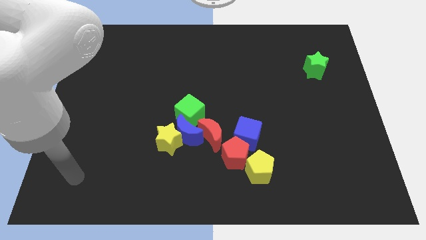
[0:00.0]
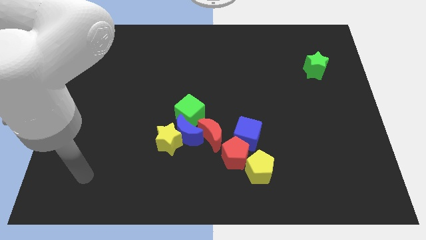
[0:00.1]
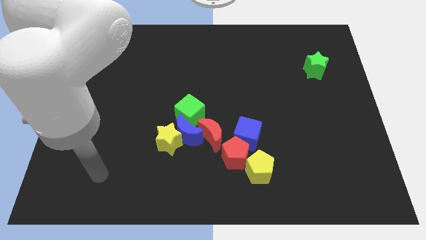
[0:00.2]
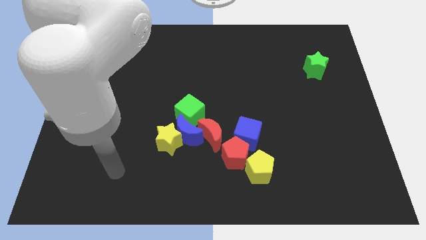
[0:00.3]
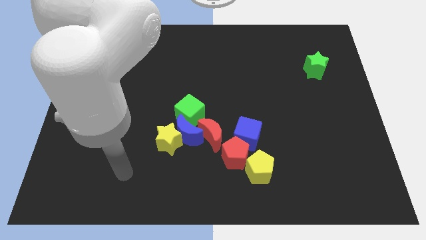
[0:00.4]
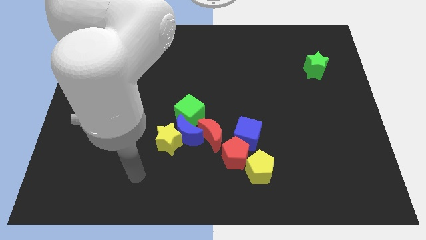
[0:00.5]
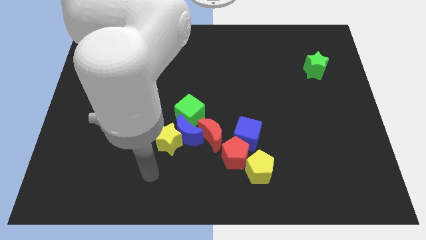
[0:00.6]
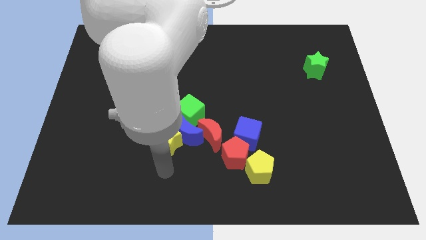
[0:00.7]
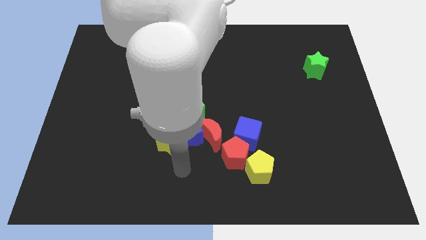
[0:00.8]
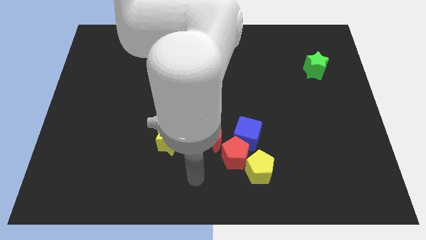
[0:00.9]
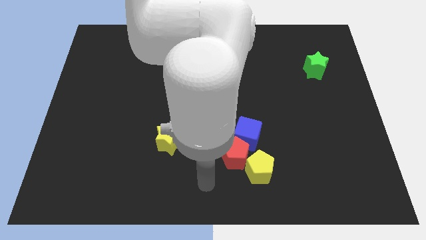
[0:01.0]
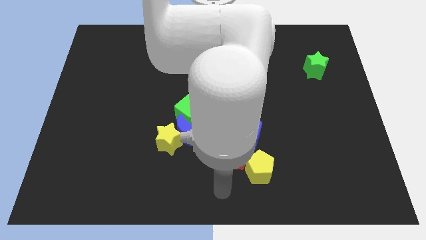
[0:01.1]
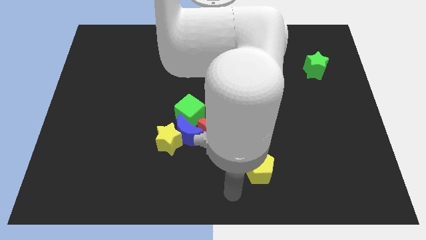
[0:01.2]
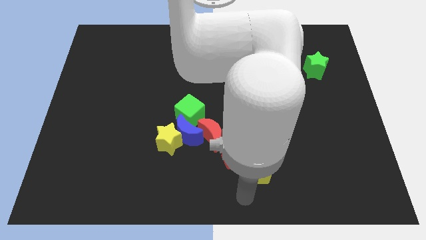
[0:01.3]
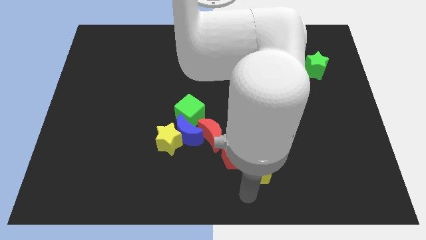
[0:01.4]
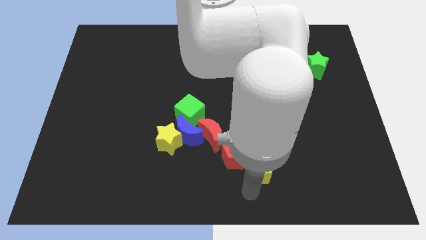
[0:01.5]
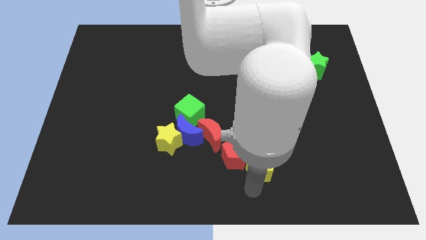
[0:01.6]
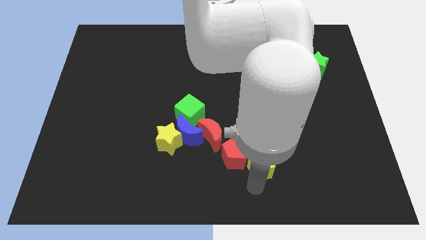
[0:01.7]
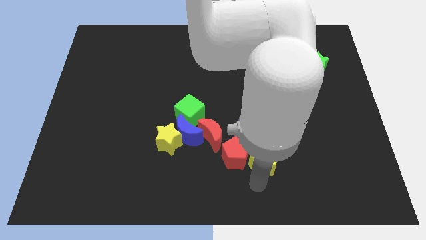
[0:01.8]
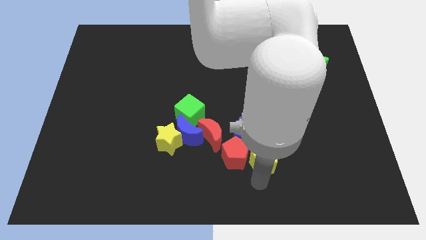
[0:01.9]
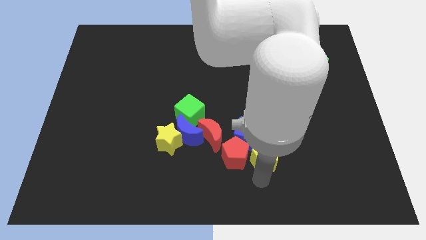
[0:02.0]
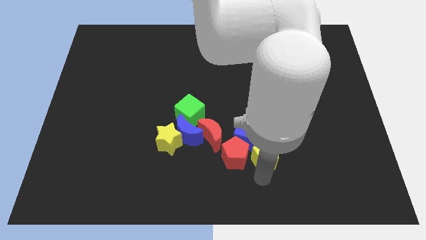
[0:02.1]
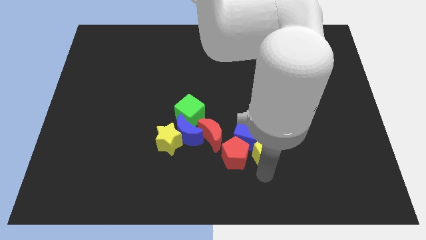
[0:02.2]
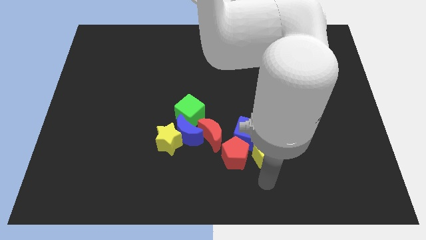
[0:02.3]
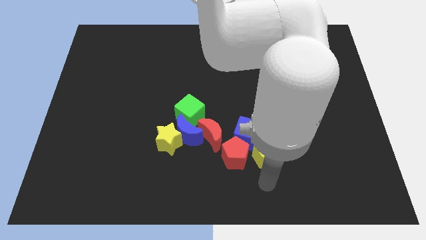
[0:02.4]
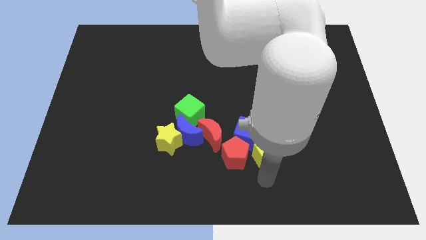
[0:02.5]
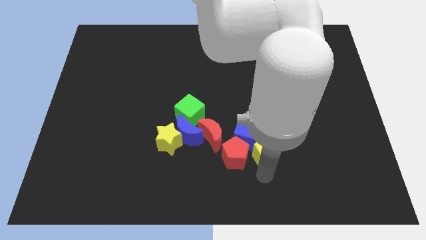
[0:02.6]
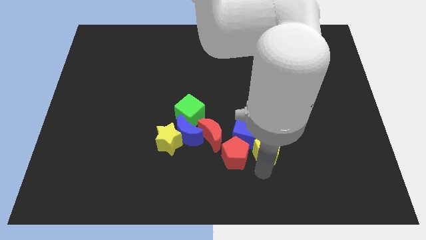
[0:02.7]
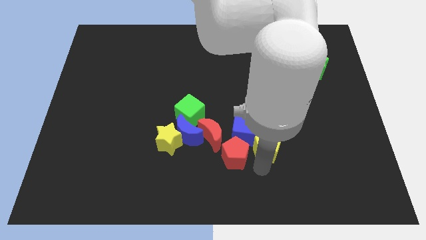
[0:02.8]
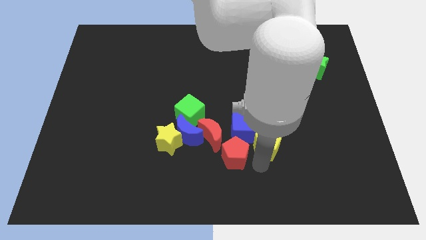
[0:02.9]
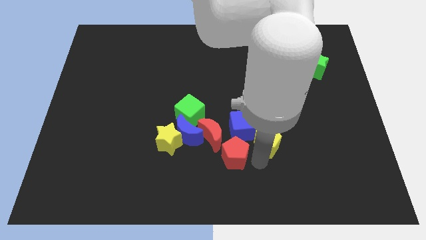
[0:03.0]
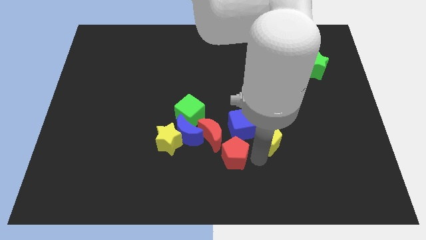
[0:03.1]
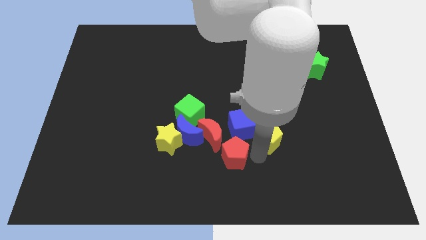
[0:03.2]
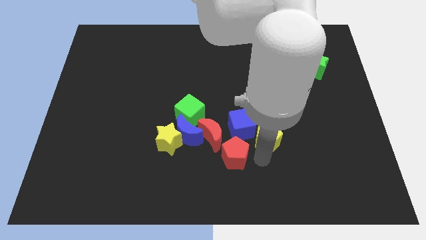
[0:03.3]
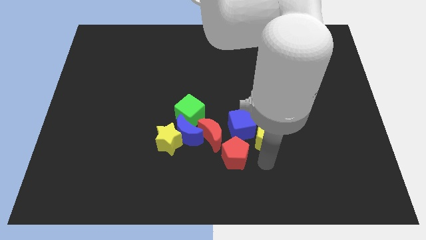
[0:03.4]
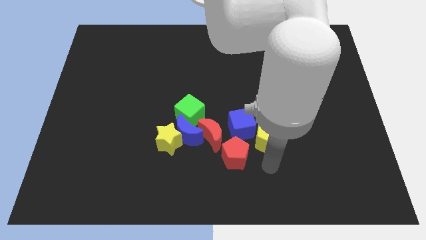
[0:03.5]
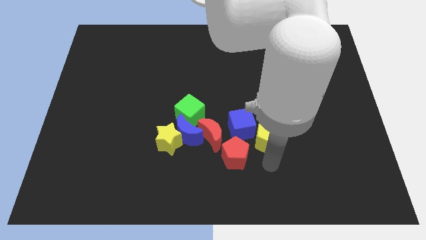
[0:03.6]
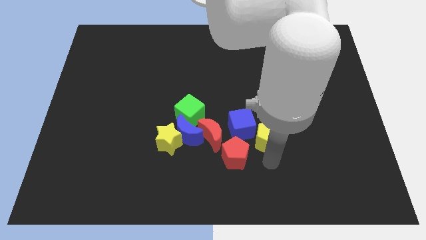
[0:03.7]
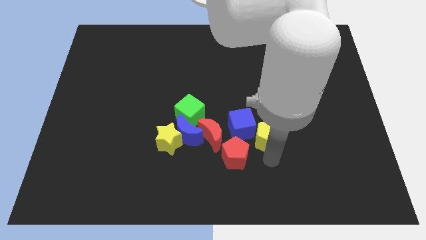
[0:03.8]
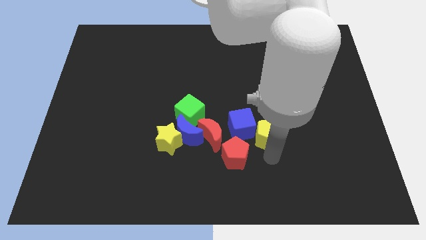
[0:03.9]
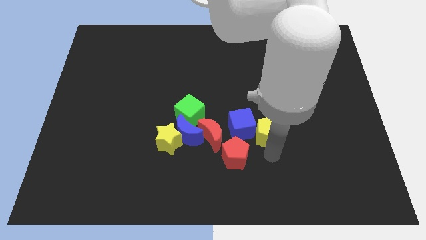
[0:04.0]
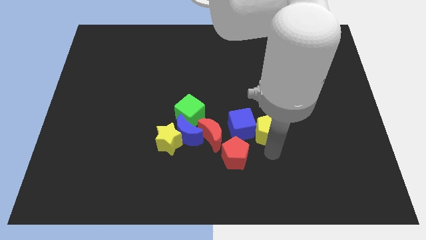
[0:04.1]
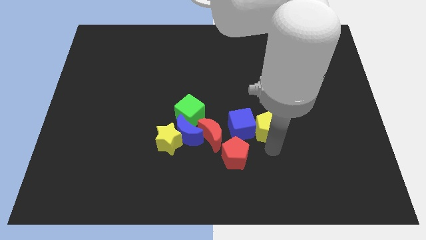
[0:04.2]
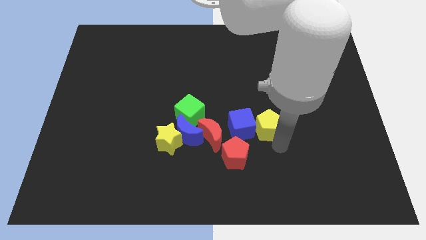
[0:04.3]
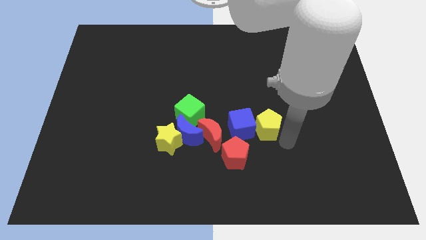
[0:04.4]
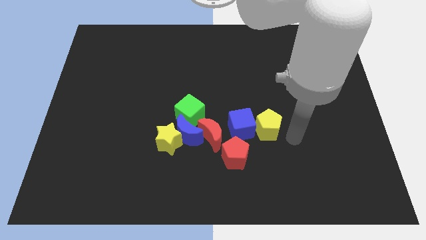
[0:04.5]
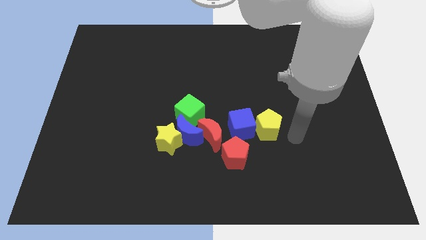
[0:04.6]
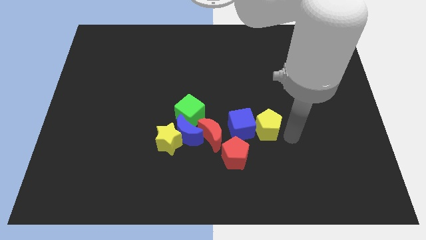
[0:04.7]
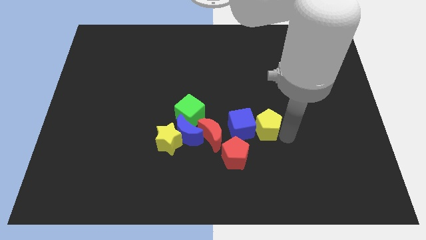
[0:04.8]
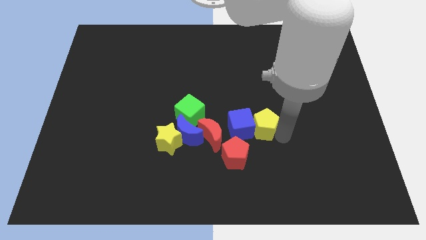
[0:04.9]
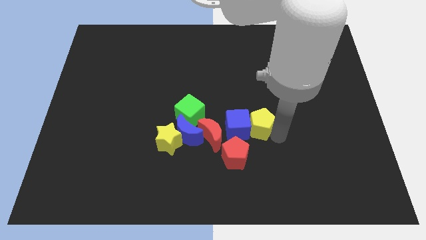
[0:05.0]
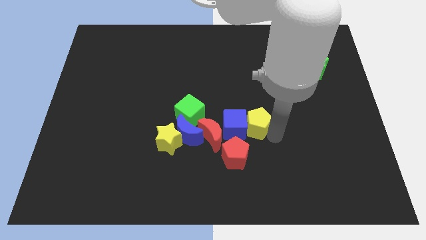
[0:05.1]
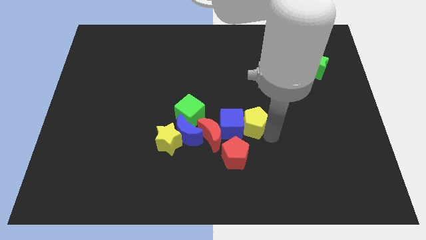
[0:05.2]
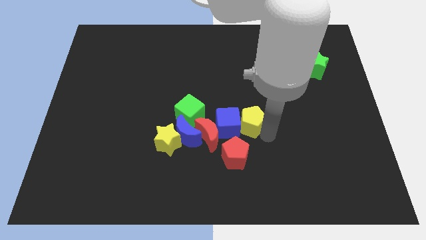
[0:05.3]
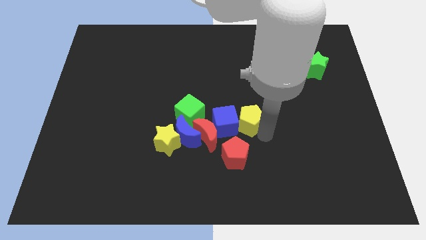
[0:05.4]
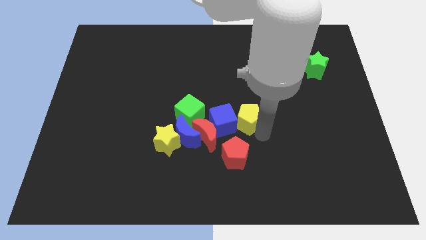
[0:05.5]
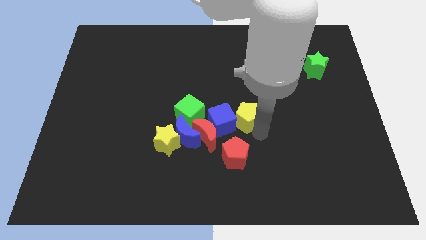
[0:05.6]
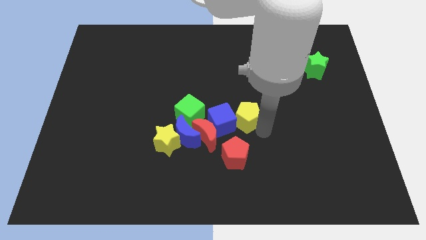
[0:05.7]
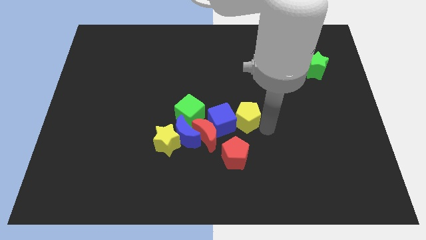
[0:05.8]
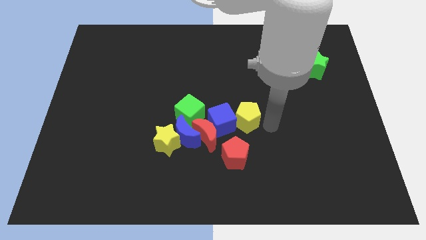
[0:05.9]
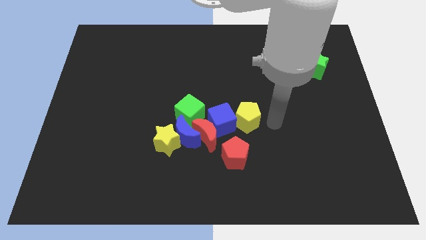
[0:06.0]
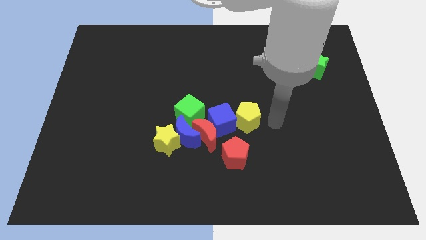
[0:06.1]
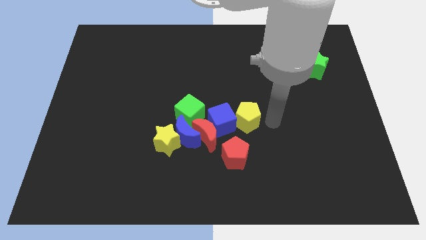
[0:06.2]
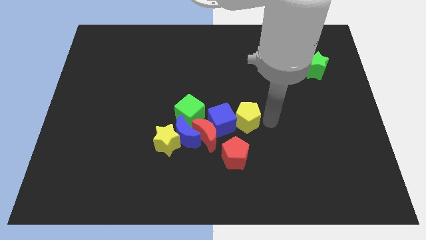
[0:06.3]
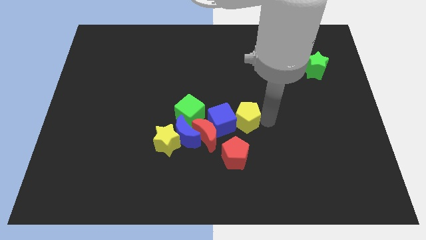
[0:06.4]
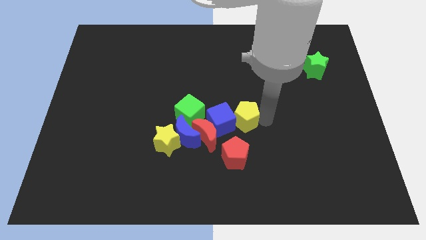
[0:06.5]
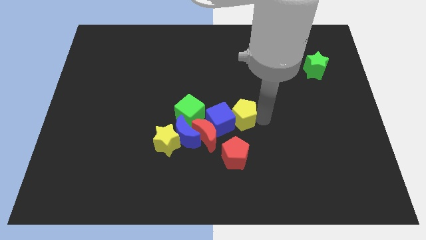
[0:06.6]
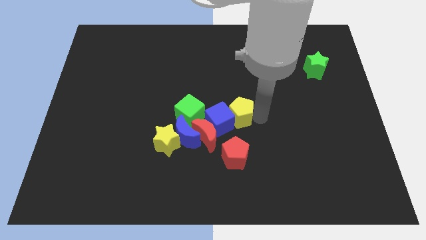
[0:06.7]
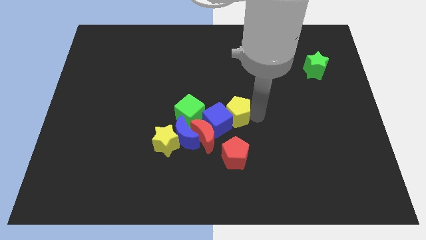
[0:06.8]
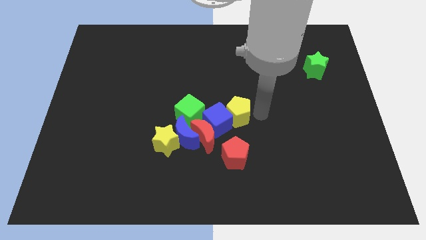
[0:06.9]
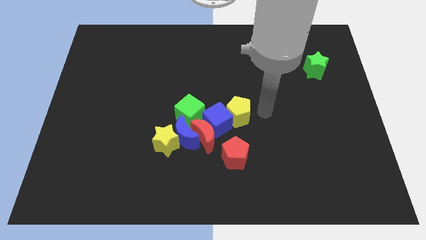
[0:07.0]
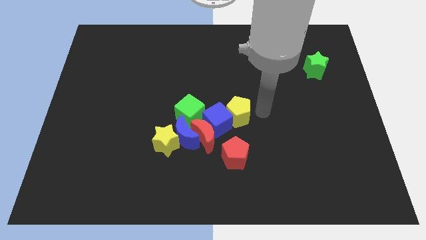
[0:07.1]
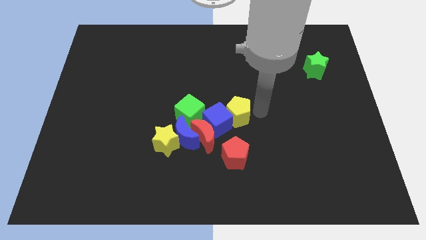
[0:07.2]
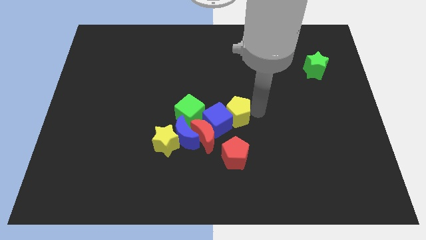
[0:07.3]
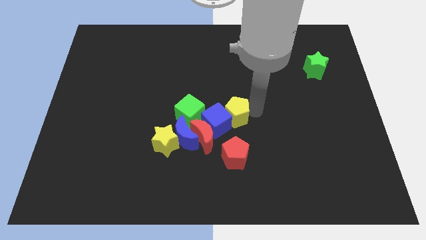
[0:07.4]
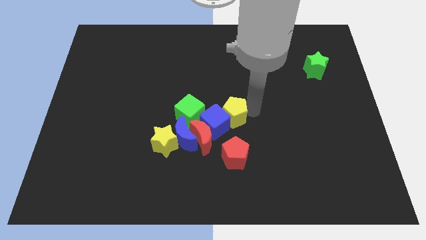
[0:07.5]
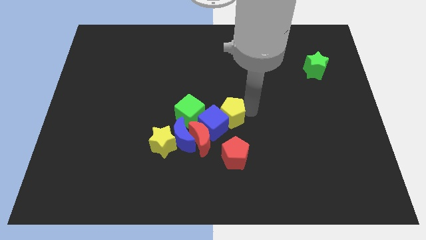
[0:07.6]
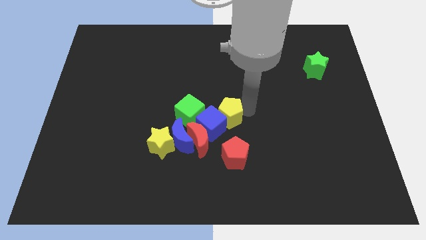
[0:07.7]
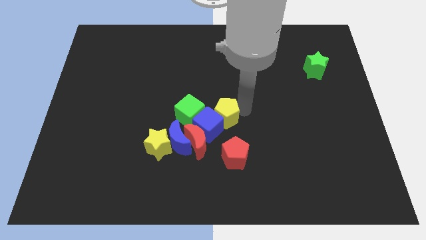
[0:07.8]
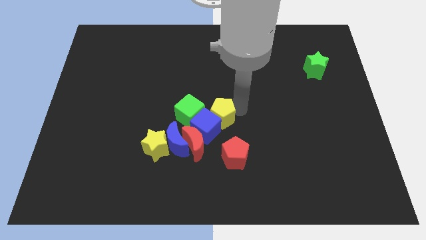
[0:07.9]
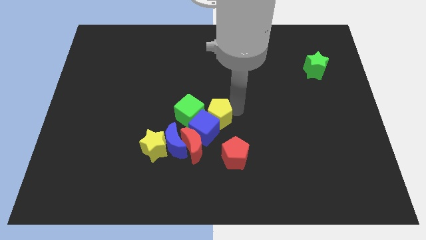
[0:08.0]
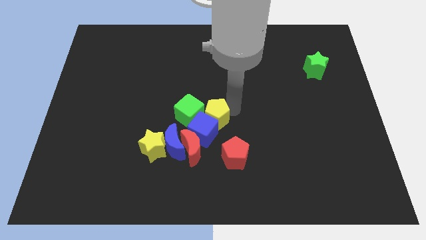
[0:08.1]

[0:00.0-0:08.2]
slide the yellow pentagon close to the green cube
